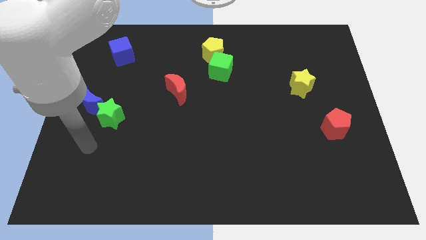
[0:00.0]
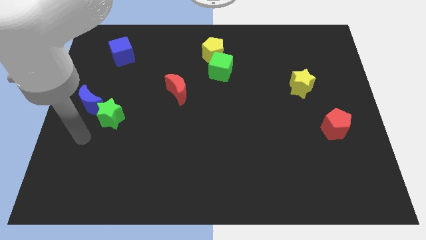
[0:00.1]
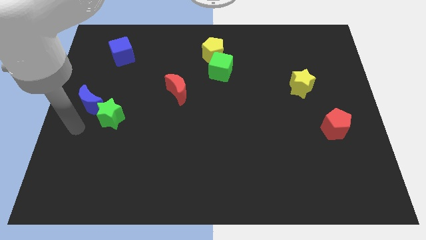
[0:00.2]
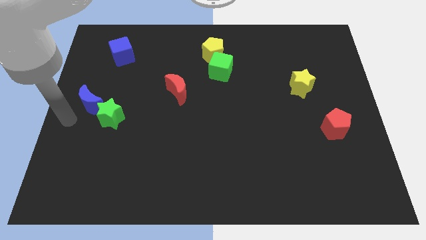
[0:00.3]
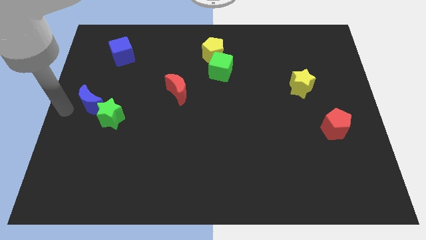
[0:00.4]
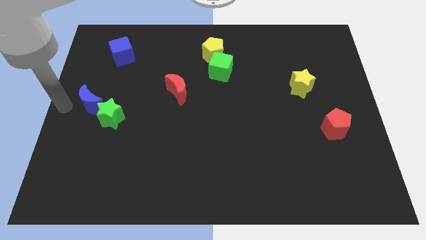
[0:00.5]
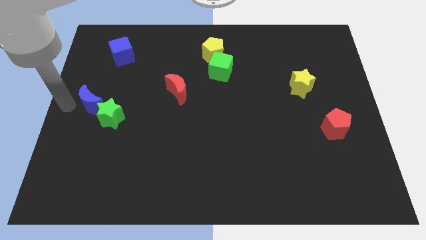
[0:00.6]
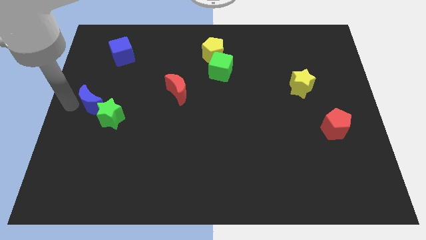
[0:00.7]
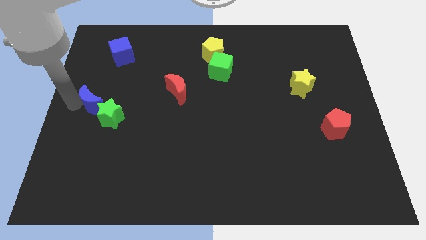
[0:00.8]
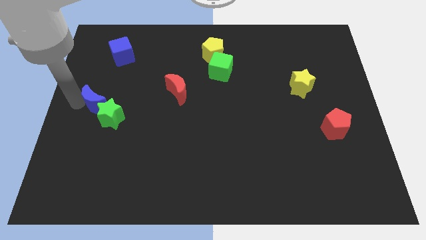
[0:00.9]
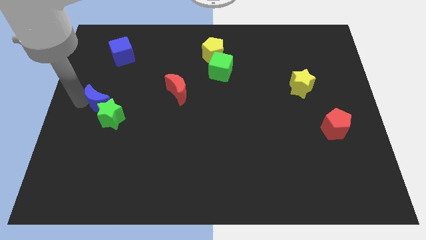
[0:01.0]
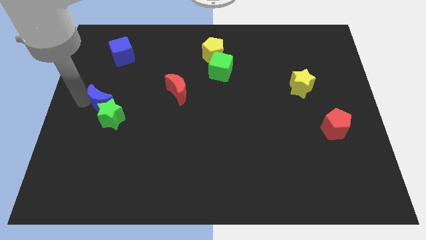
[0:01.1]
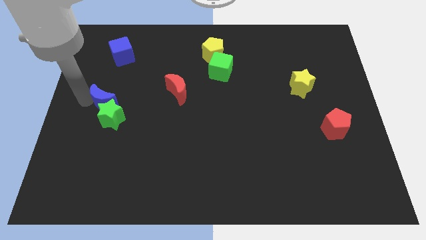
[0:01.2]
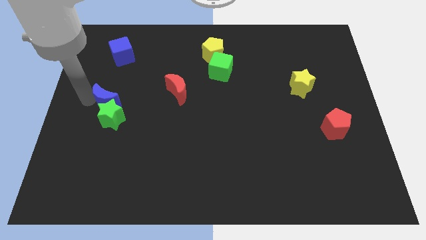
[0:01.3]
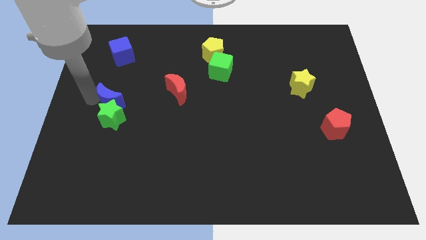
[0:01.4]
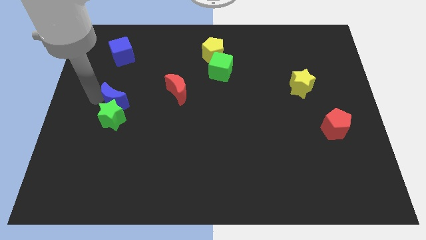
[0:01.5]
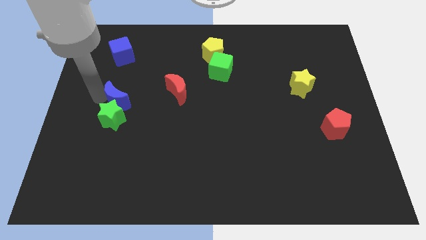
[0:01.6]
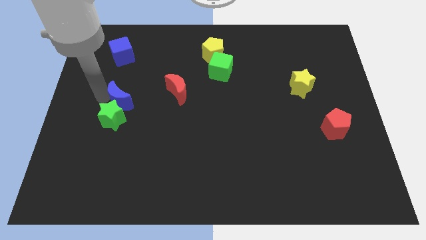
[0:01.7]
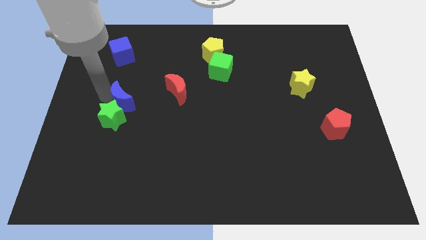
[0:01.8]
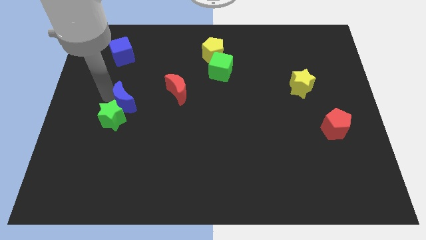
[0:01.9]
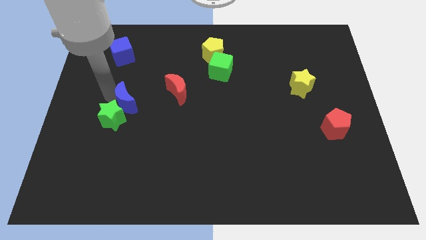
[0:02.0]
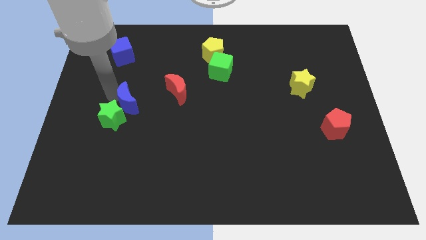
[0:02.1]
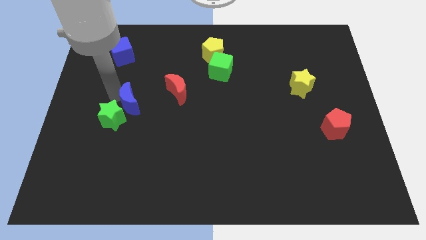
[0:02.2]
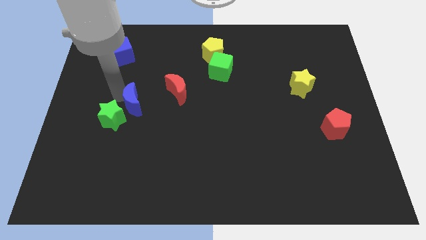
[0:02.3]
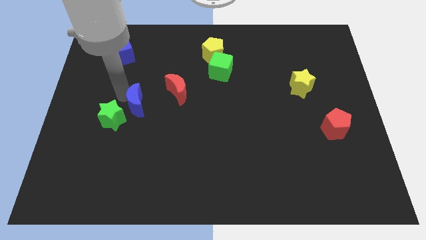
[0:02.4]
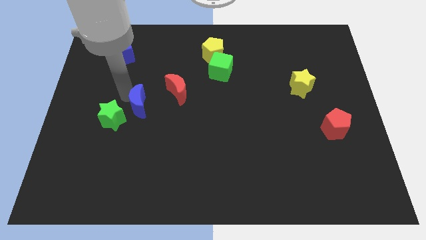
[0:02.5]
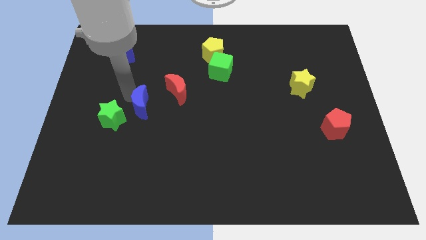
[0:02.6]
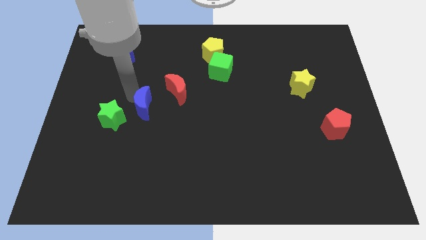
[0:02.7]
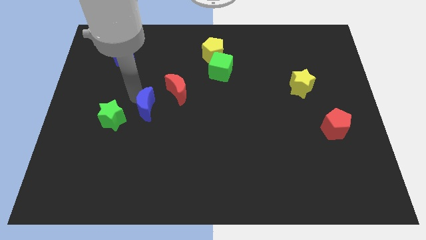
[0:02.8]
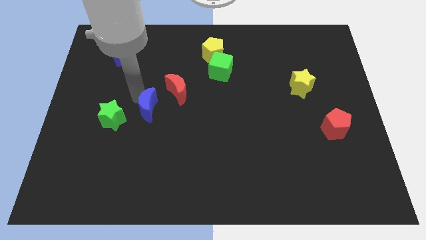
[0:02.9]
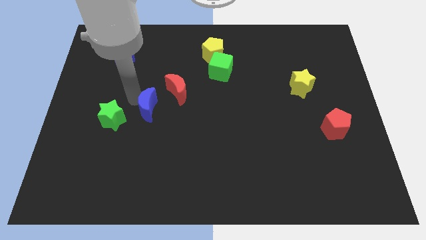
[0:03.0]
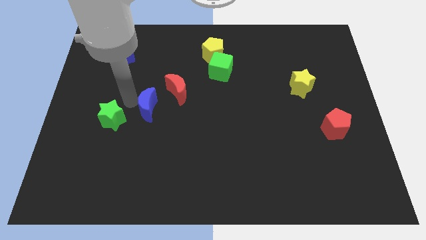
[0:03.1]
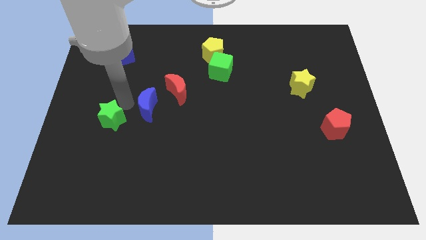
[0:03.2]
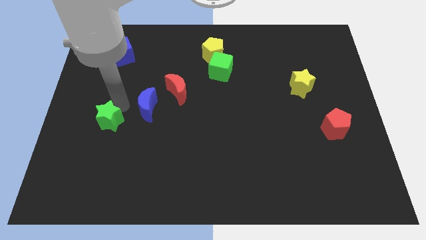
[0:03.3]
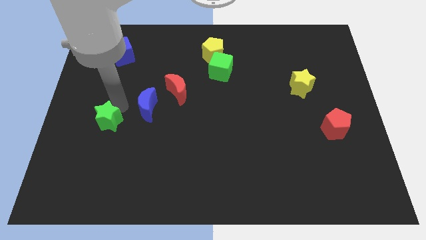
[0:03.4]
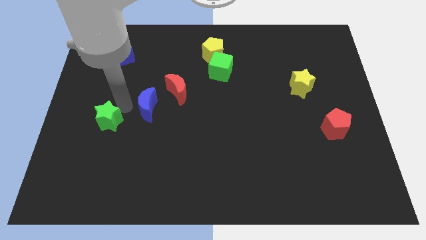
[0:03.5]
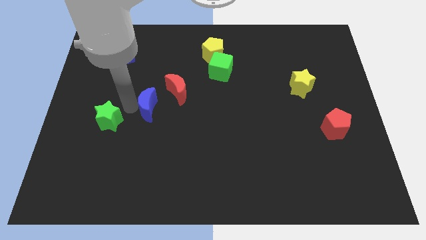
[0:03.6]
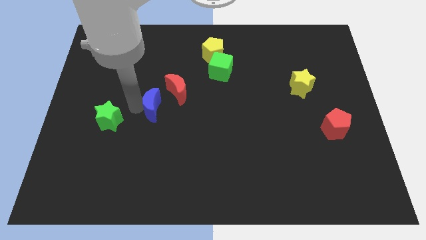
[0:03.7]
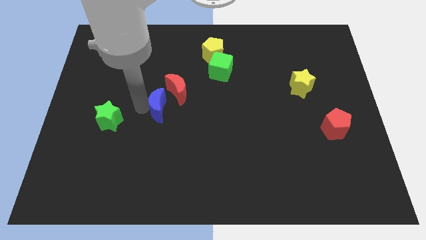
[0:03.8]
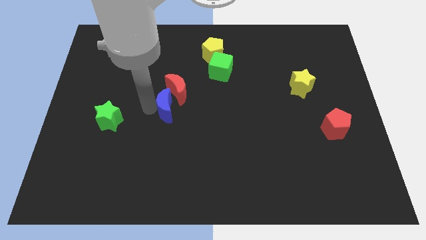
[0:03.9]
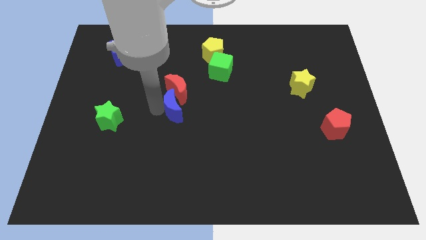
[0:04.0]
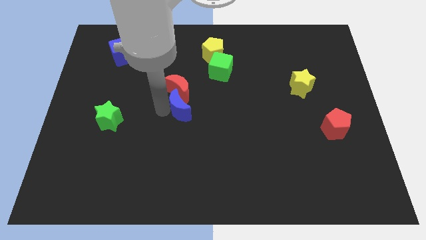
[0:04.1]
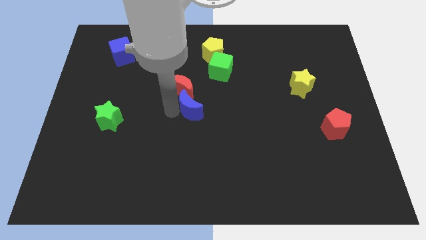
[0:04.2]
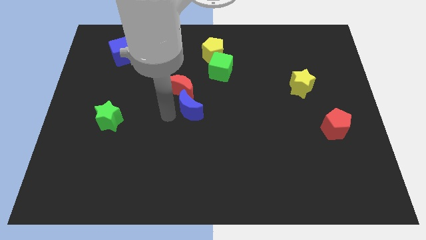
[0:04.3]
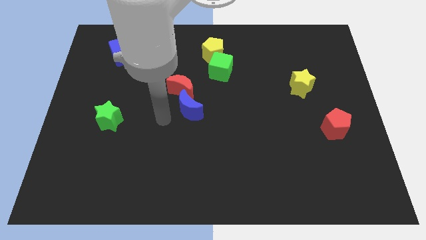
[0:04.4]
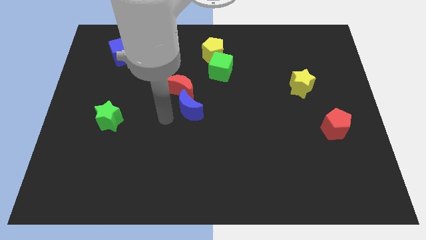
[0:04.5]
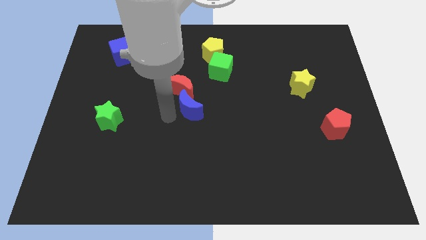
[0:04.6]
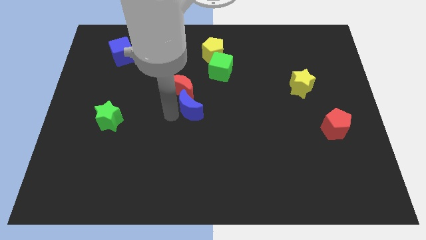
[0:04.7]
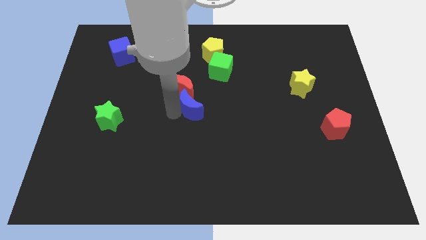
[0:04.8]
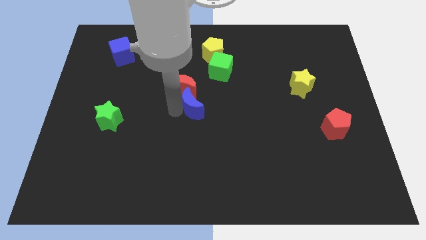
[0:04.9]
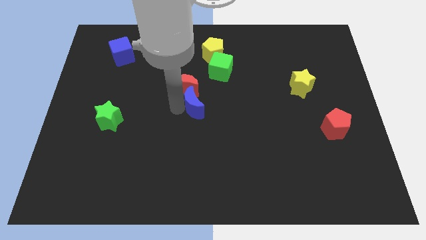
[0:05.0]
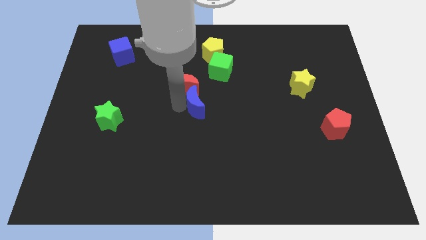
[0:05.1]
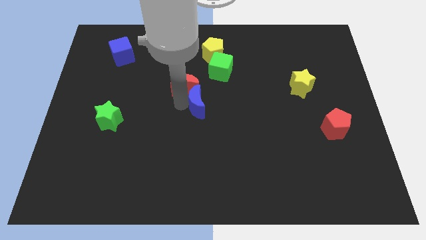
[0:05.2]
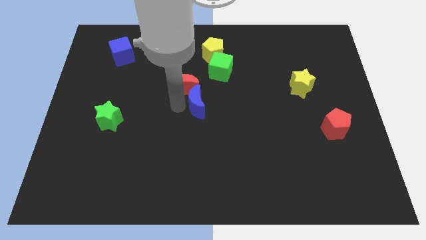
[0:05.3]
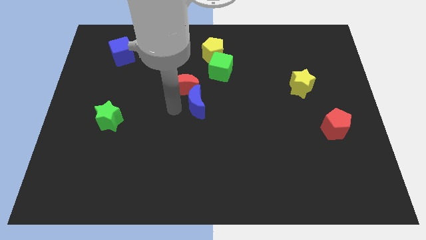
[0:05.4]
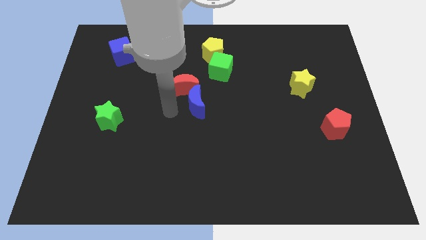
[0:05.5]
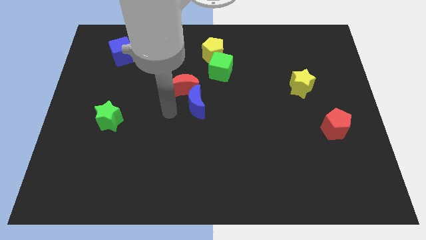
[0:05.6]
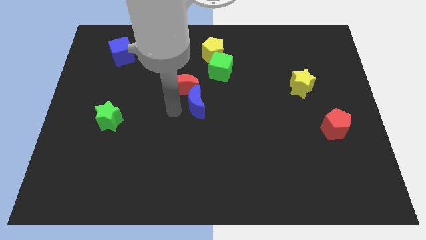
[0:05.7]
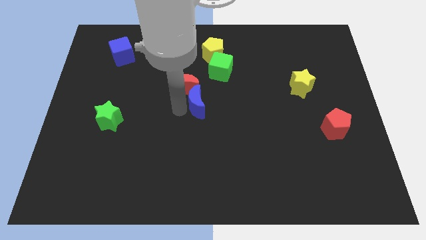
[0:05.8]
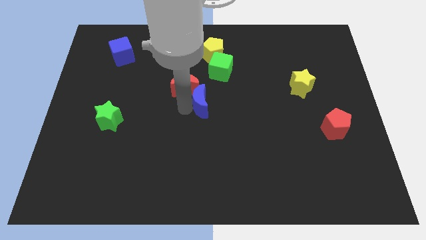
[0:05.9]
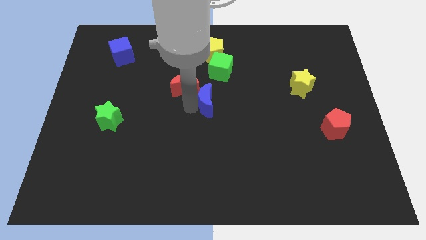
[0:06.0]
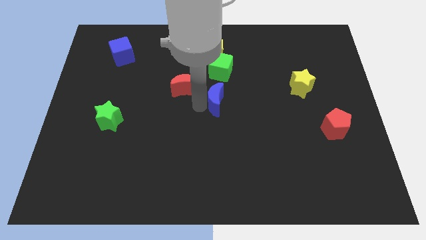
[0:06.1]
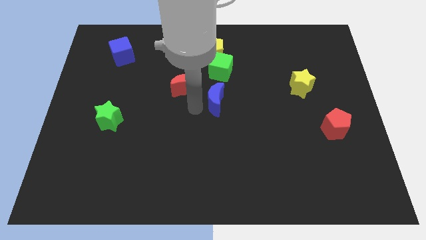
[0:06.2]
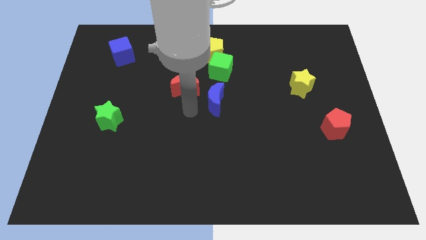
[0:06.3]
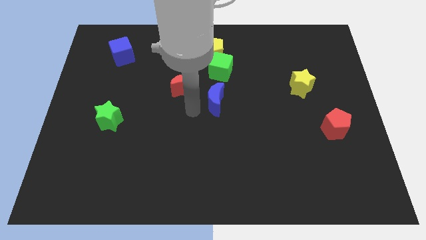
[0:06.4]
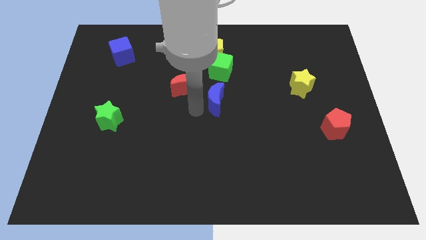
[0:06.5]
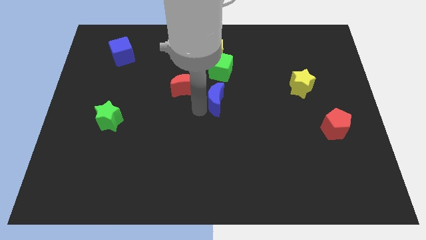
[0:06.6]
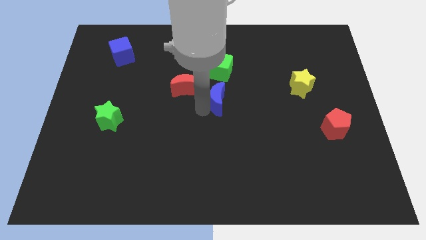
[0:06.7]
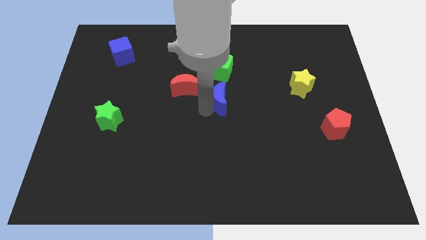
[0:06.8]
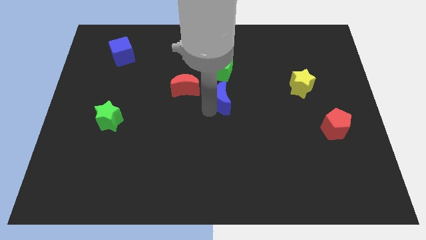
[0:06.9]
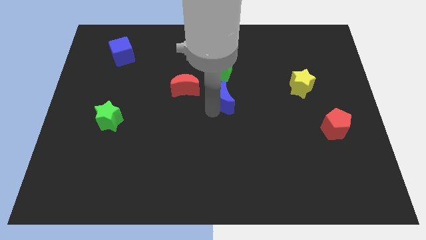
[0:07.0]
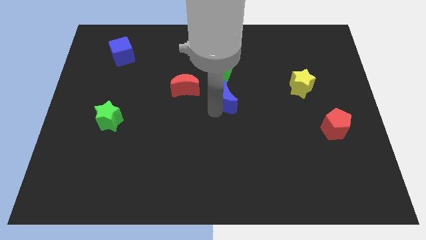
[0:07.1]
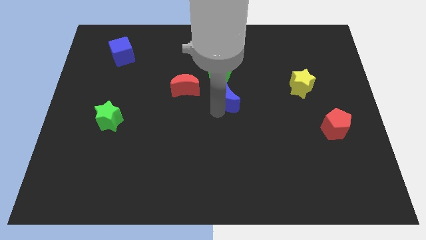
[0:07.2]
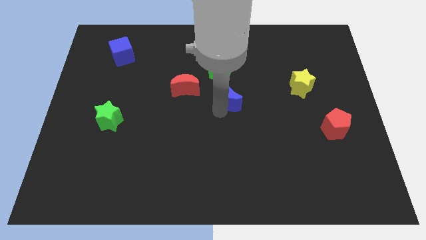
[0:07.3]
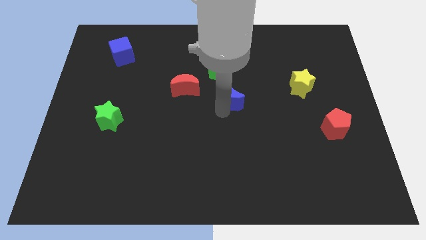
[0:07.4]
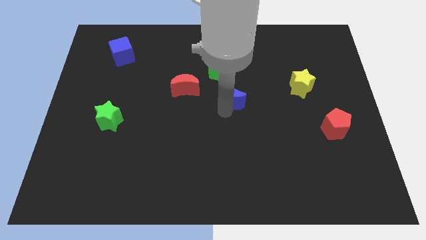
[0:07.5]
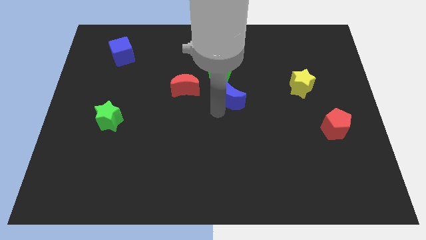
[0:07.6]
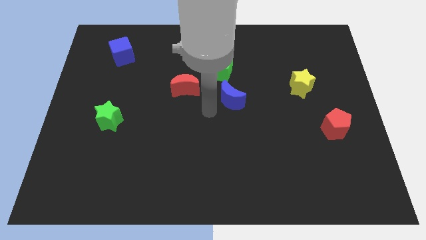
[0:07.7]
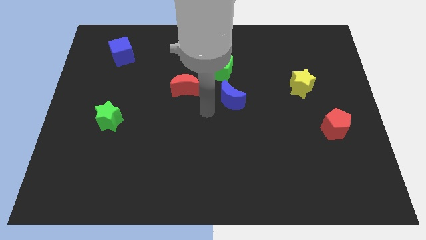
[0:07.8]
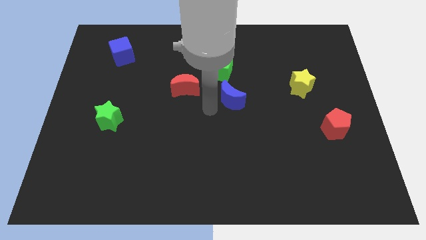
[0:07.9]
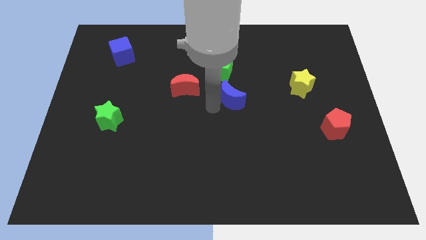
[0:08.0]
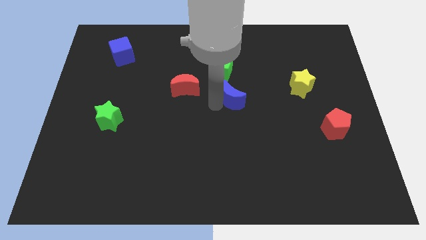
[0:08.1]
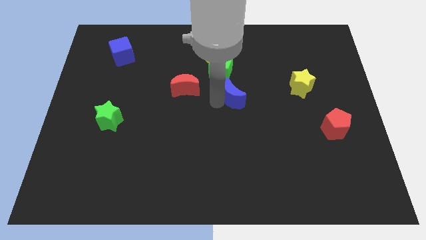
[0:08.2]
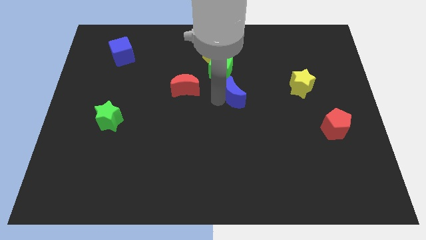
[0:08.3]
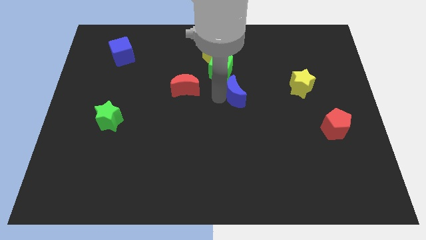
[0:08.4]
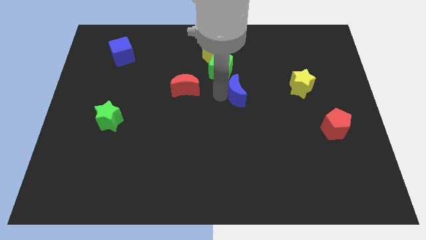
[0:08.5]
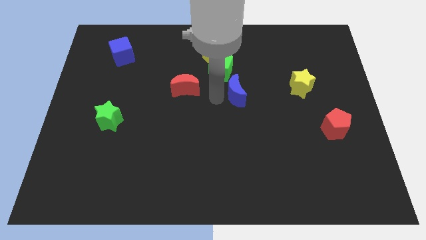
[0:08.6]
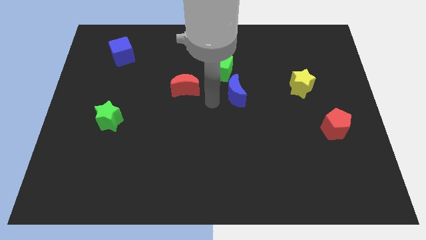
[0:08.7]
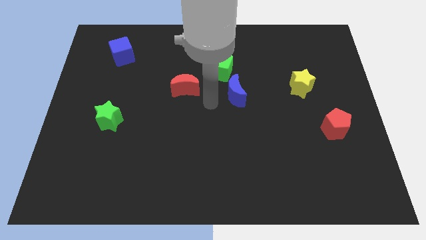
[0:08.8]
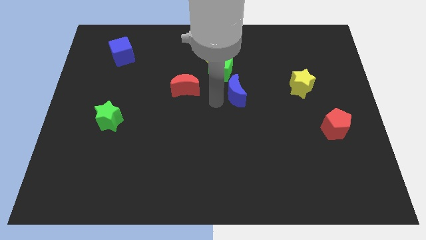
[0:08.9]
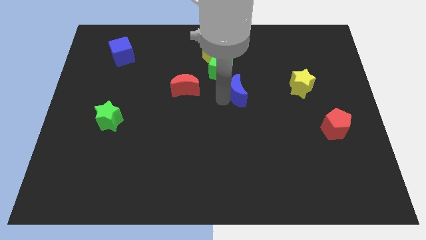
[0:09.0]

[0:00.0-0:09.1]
slide the blue moon left of the yellow star
